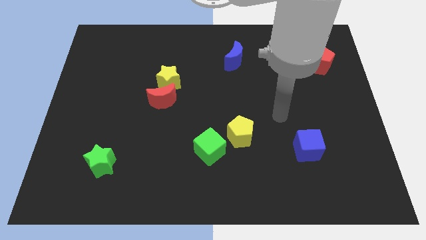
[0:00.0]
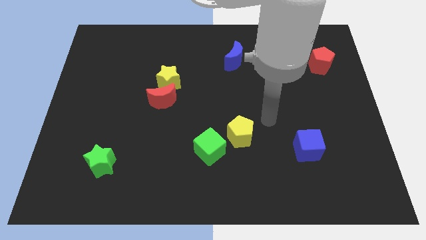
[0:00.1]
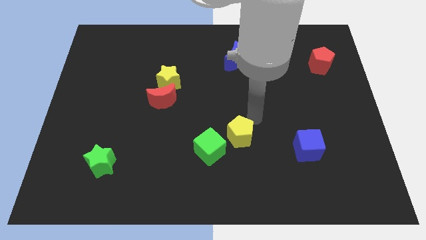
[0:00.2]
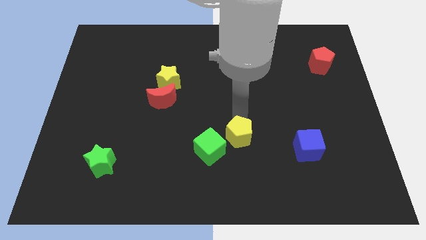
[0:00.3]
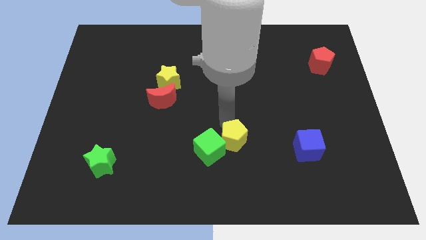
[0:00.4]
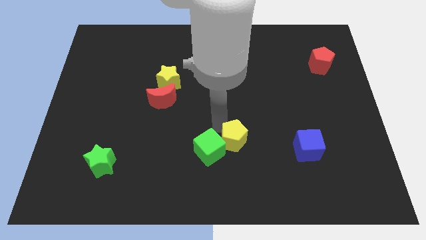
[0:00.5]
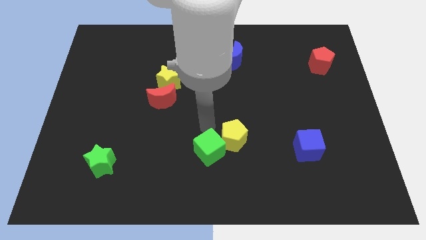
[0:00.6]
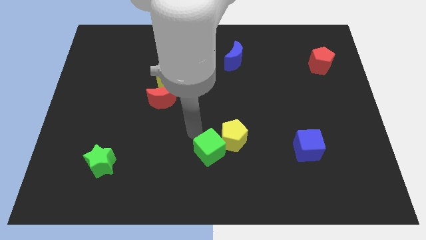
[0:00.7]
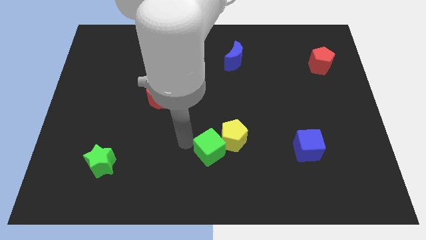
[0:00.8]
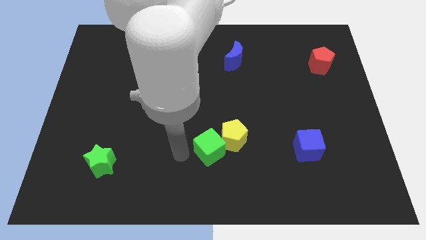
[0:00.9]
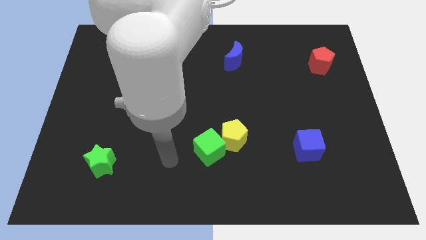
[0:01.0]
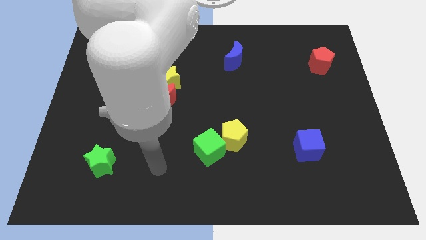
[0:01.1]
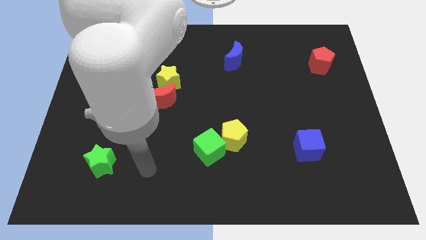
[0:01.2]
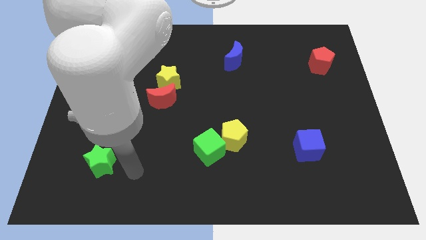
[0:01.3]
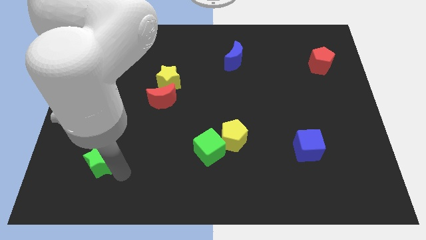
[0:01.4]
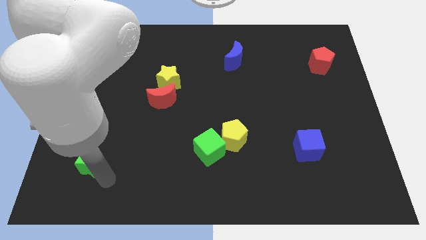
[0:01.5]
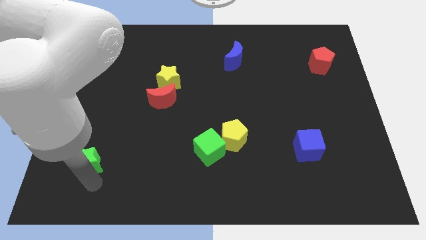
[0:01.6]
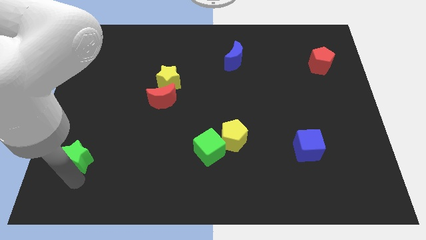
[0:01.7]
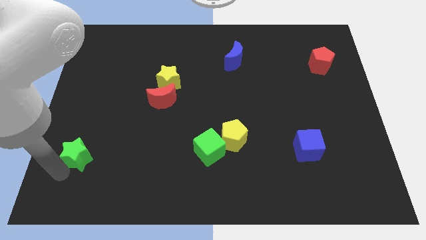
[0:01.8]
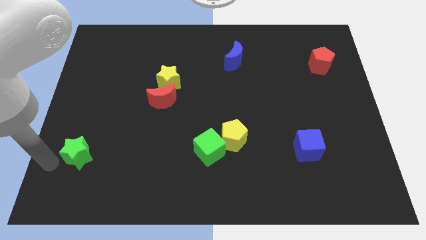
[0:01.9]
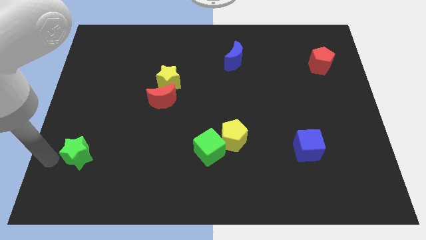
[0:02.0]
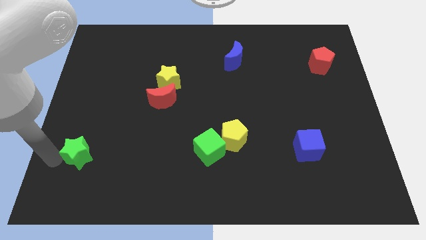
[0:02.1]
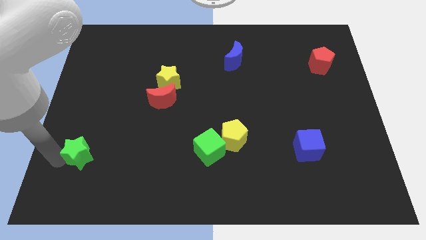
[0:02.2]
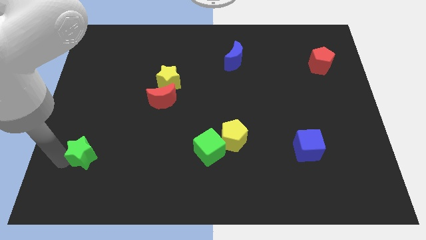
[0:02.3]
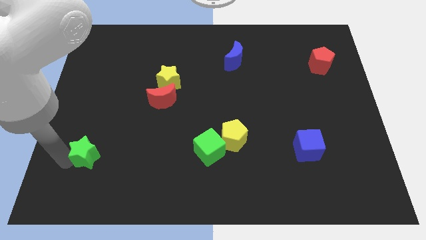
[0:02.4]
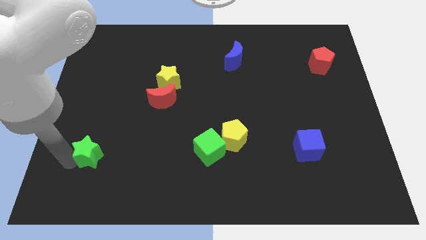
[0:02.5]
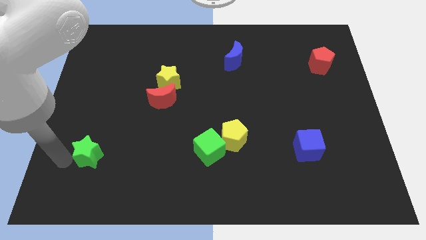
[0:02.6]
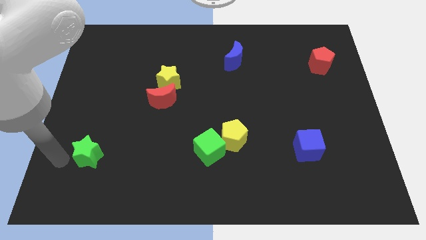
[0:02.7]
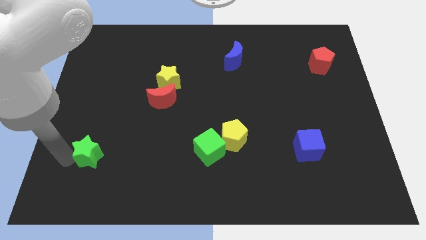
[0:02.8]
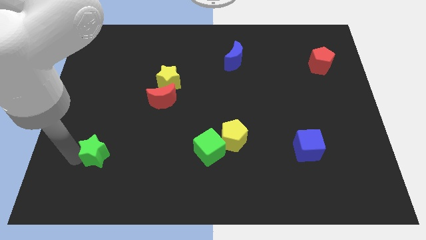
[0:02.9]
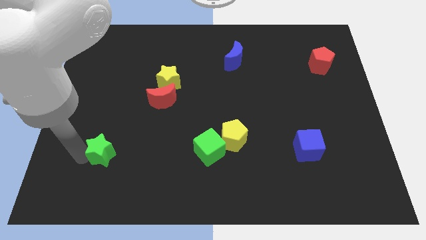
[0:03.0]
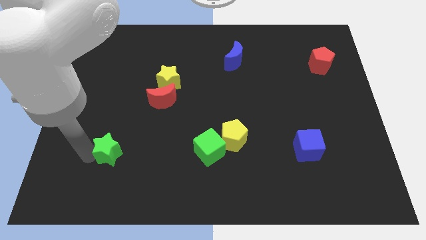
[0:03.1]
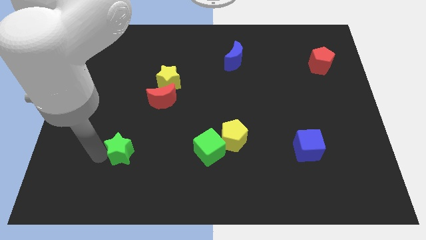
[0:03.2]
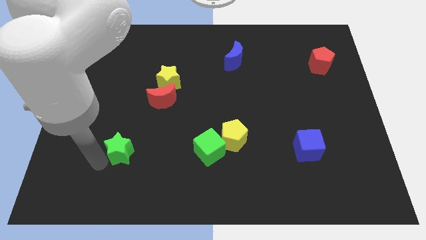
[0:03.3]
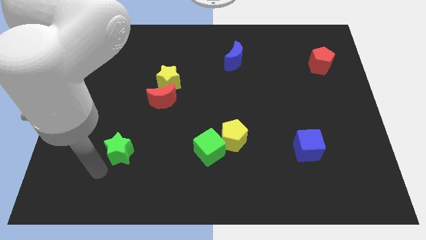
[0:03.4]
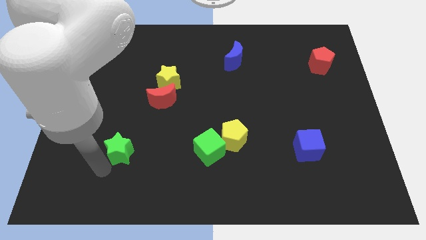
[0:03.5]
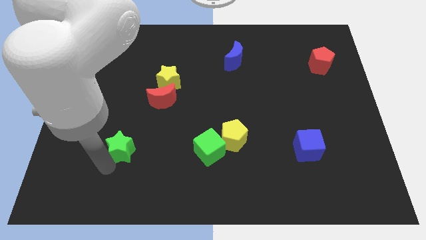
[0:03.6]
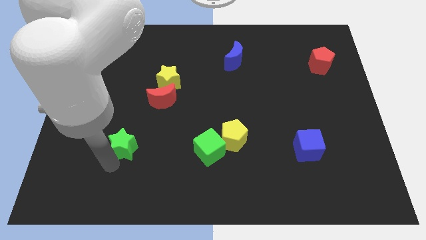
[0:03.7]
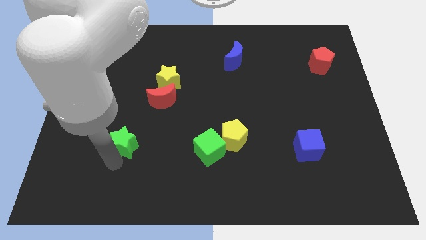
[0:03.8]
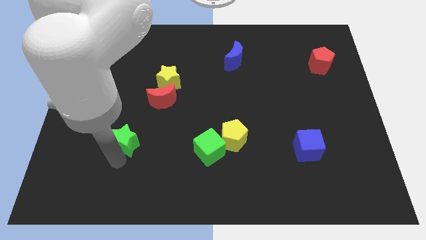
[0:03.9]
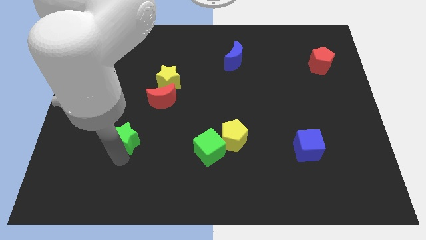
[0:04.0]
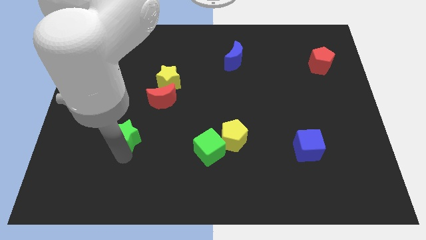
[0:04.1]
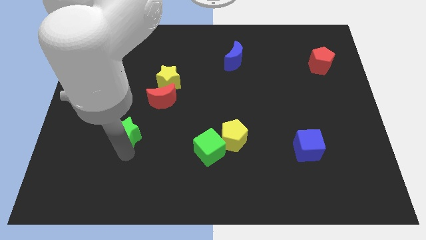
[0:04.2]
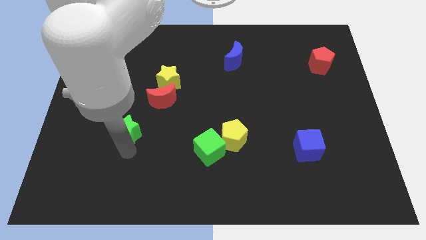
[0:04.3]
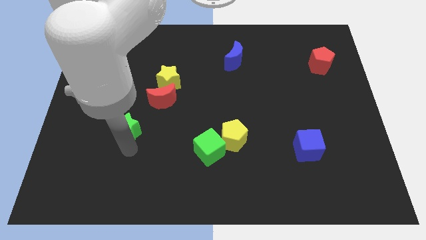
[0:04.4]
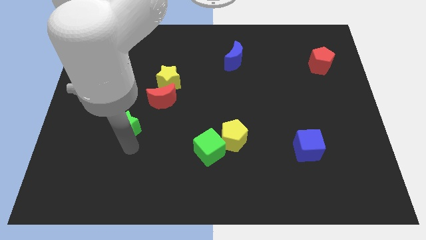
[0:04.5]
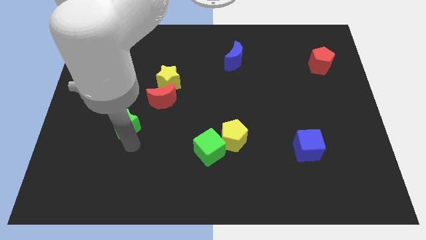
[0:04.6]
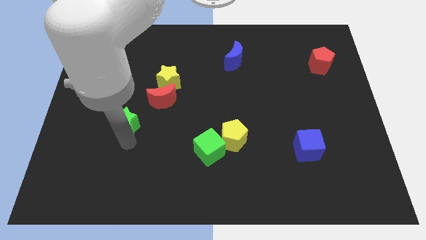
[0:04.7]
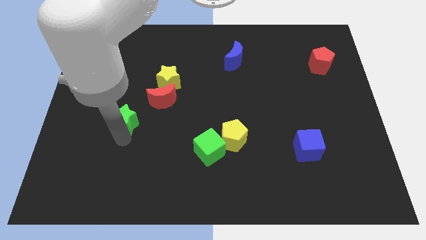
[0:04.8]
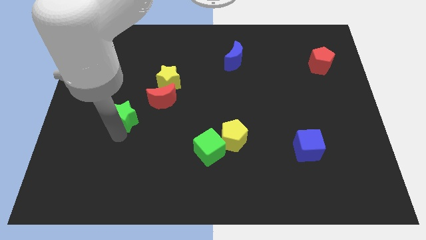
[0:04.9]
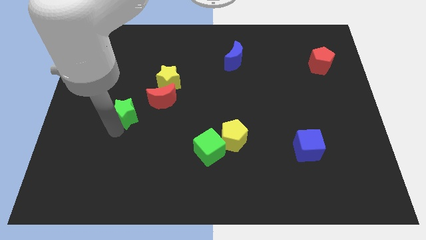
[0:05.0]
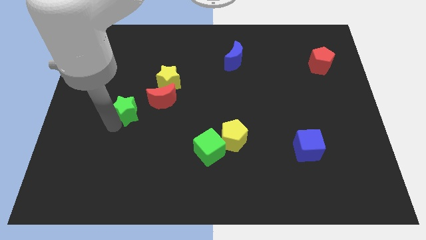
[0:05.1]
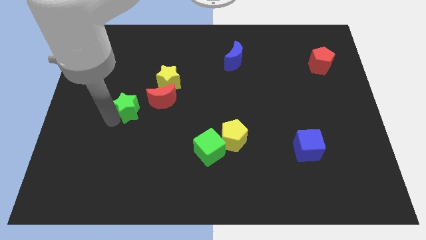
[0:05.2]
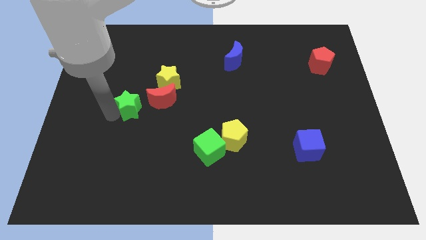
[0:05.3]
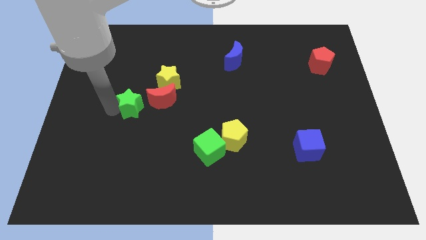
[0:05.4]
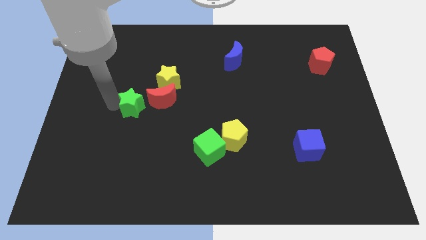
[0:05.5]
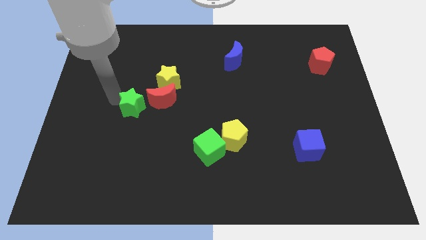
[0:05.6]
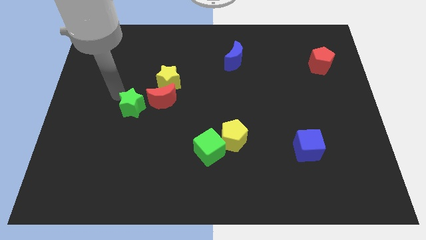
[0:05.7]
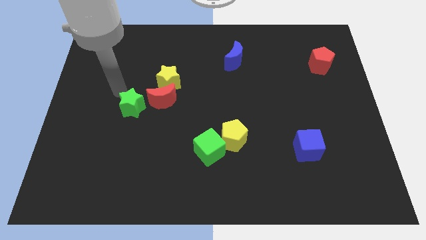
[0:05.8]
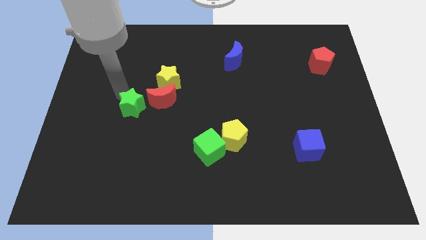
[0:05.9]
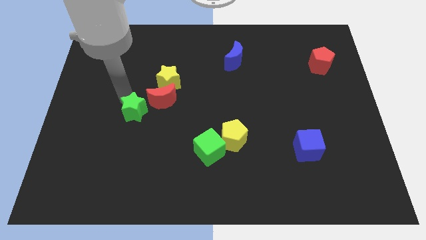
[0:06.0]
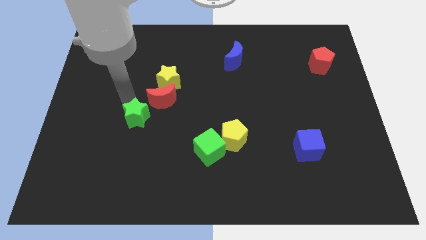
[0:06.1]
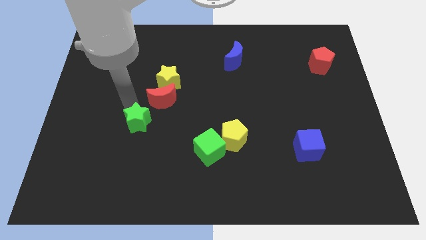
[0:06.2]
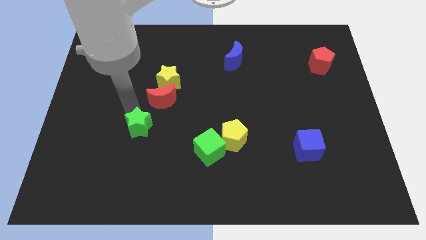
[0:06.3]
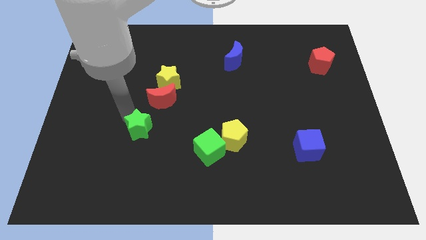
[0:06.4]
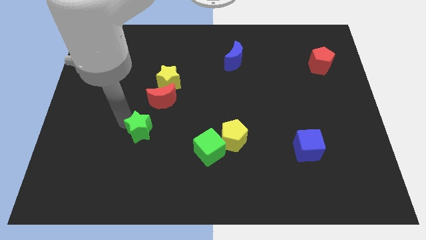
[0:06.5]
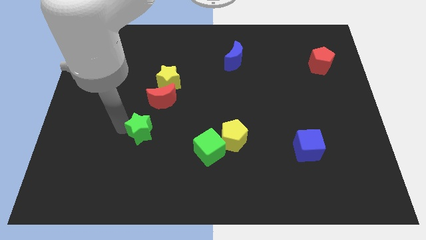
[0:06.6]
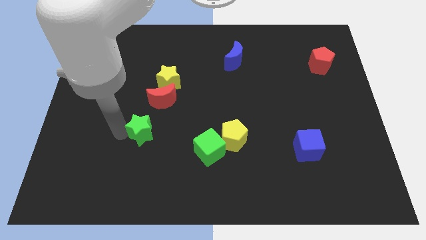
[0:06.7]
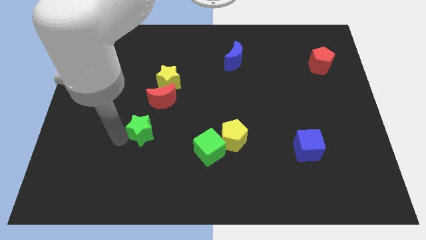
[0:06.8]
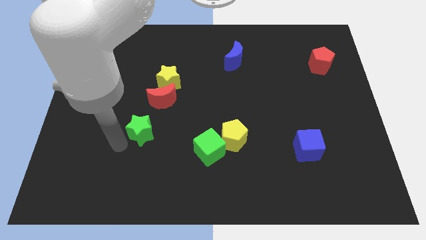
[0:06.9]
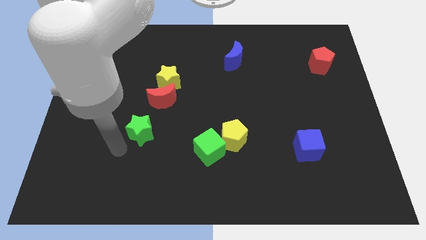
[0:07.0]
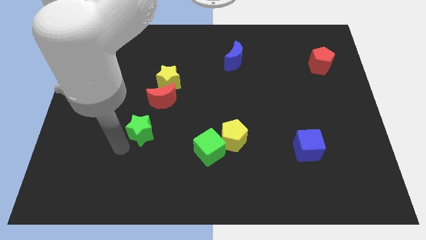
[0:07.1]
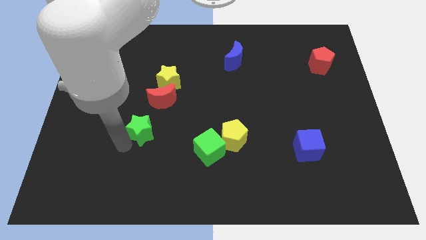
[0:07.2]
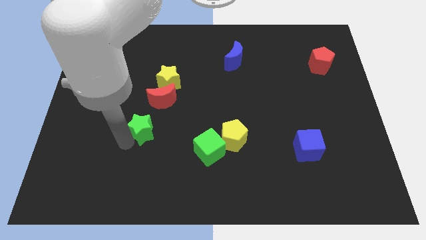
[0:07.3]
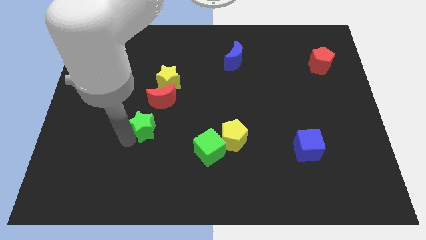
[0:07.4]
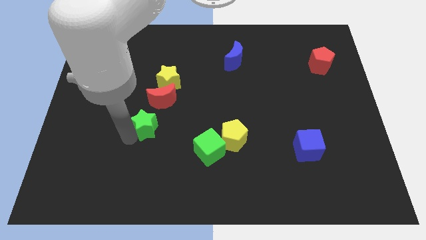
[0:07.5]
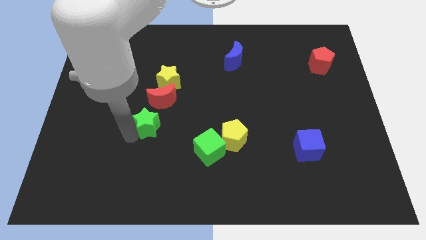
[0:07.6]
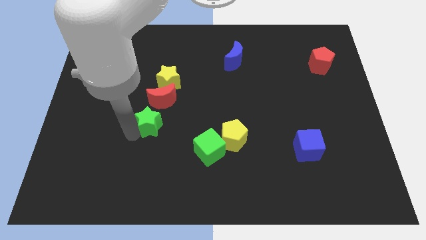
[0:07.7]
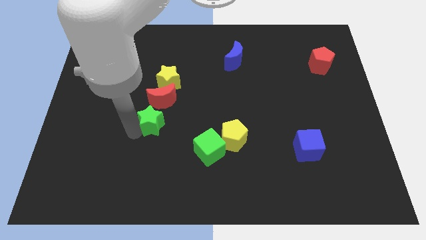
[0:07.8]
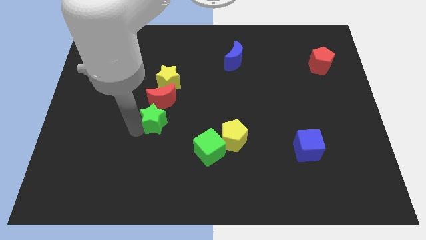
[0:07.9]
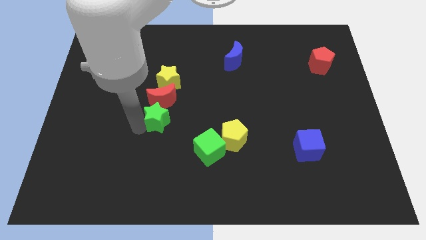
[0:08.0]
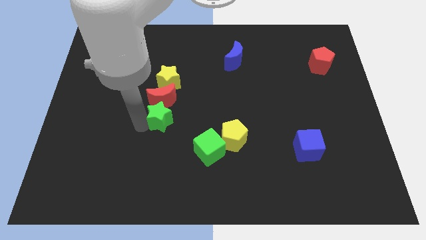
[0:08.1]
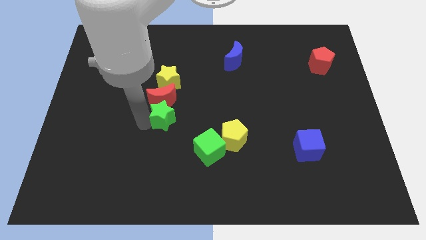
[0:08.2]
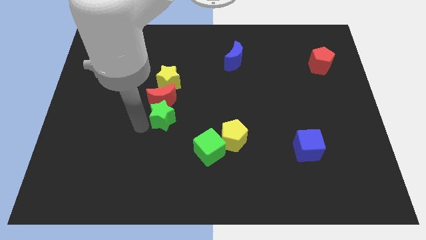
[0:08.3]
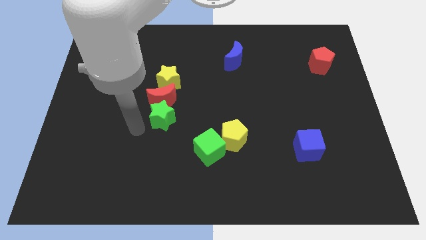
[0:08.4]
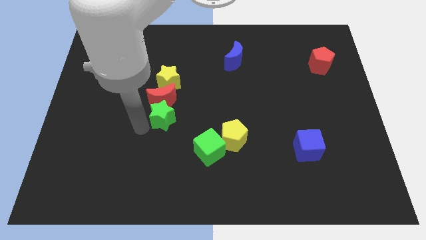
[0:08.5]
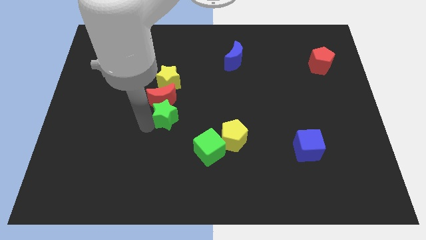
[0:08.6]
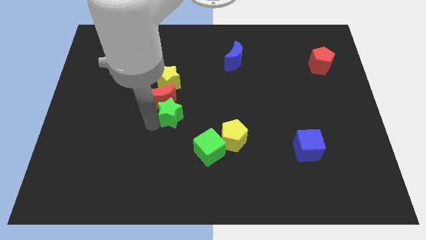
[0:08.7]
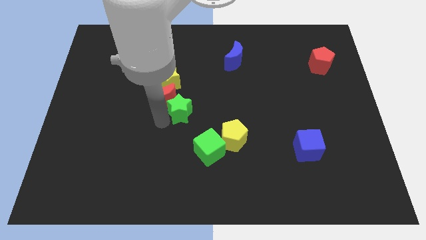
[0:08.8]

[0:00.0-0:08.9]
slide the green star upwards and right diagonally
